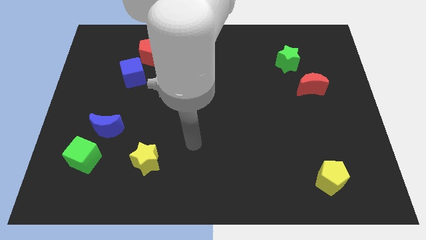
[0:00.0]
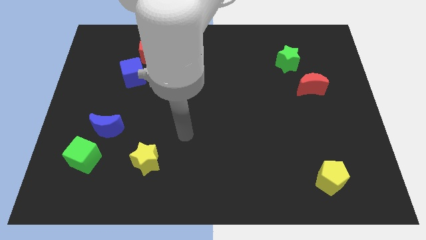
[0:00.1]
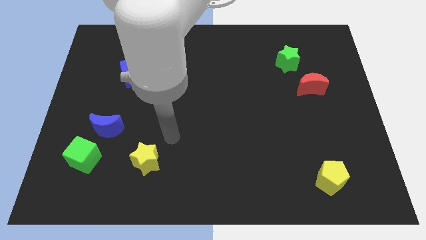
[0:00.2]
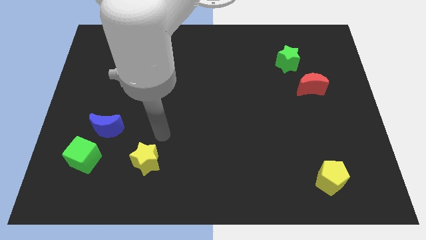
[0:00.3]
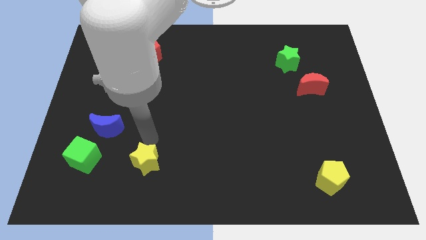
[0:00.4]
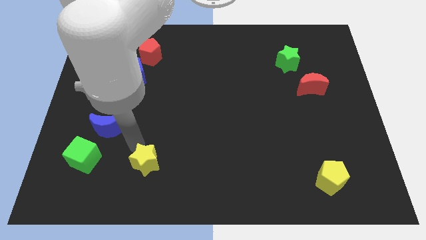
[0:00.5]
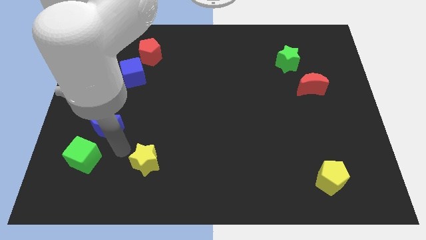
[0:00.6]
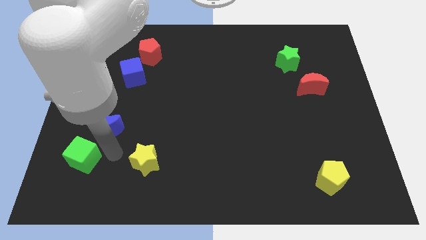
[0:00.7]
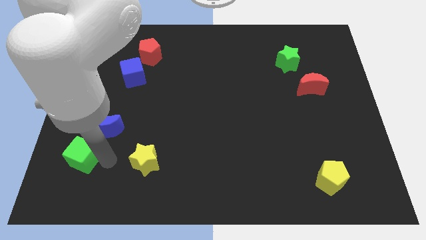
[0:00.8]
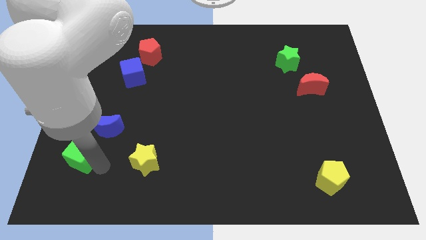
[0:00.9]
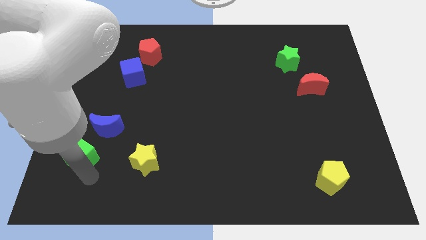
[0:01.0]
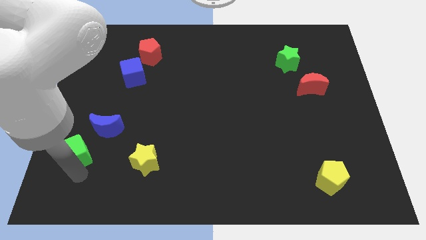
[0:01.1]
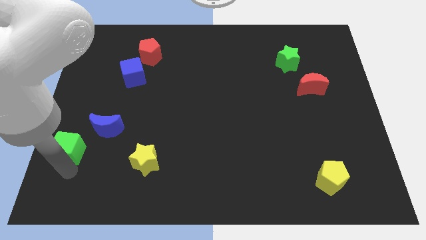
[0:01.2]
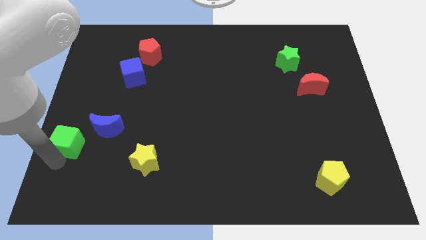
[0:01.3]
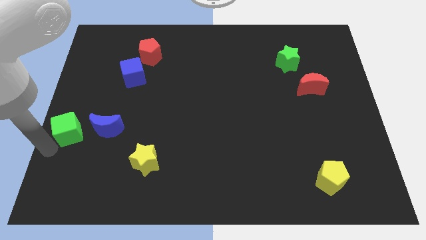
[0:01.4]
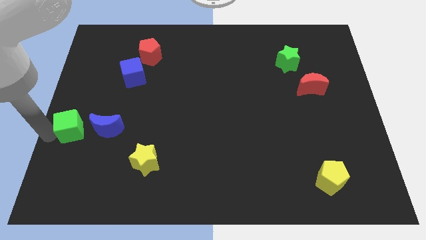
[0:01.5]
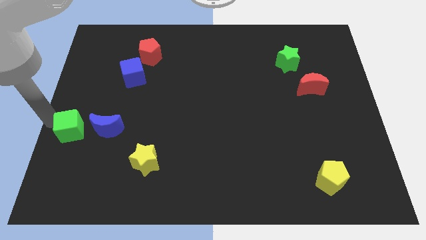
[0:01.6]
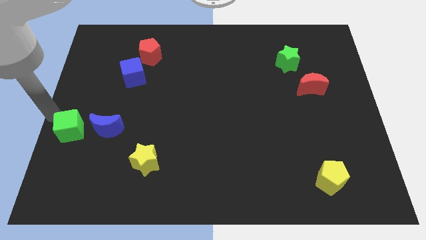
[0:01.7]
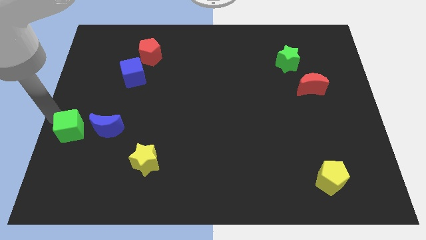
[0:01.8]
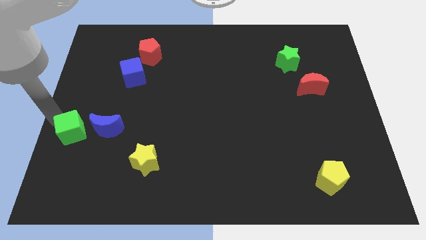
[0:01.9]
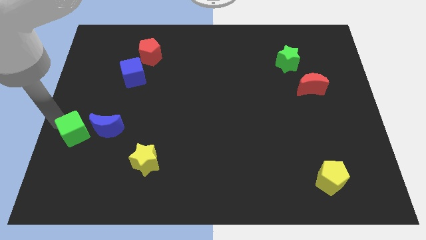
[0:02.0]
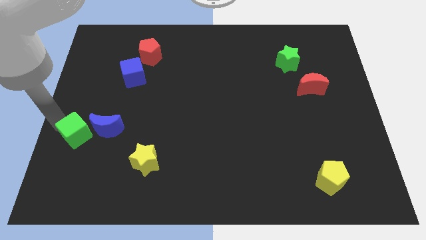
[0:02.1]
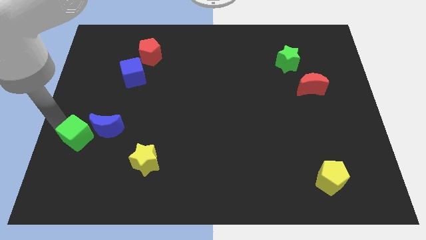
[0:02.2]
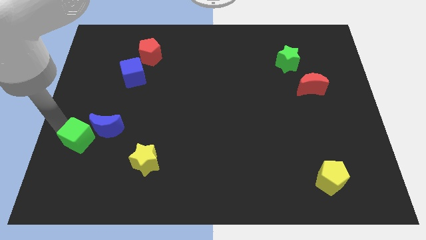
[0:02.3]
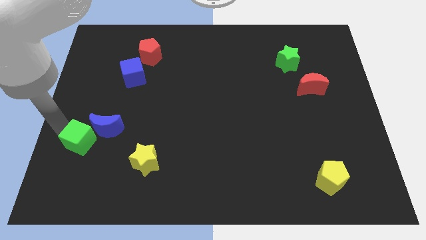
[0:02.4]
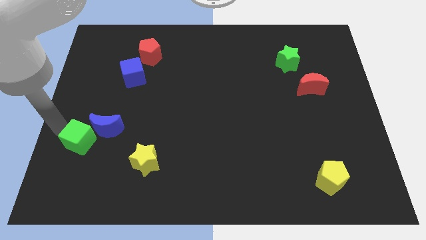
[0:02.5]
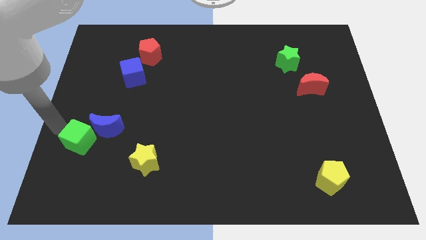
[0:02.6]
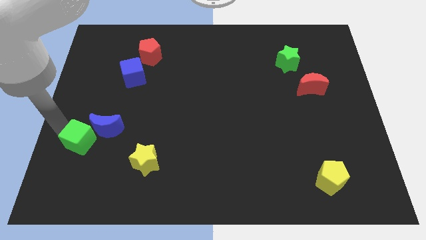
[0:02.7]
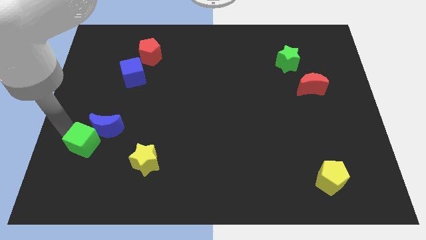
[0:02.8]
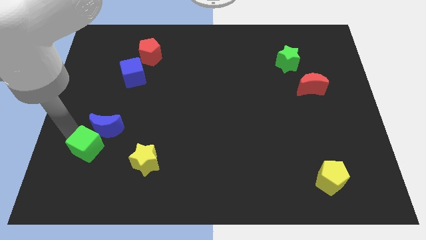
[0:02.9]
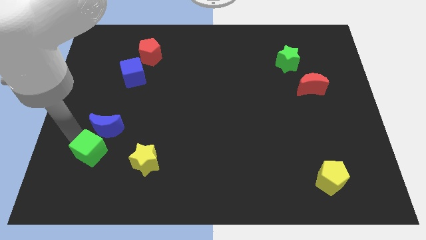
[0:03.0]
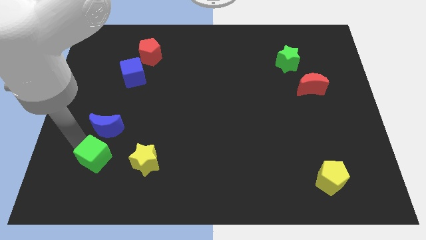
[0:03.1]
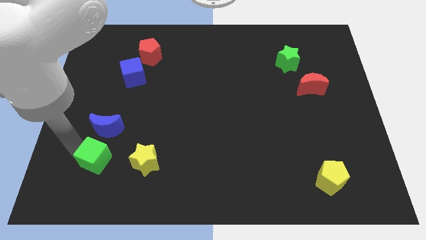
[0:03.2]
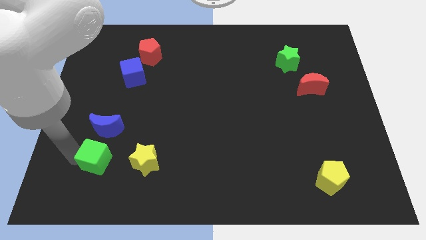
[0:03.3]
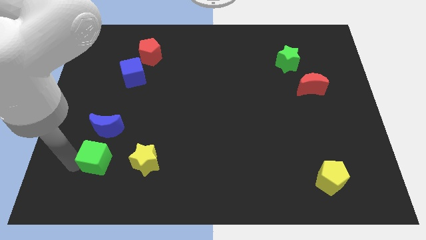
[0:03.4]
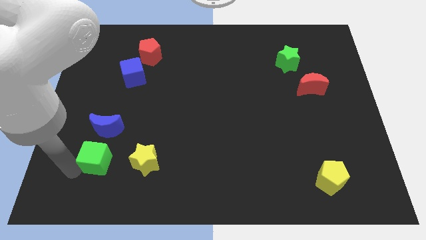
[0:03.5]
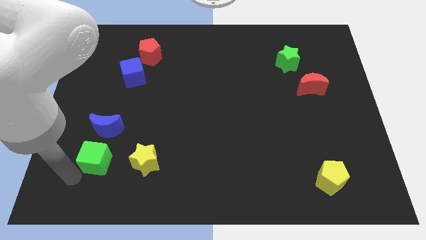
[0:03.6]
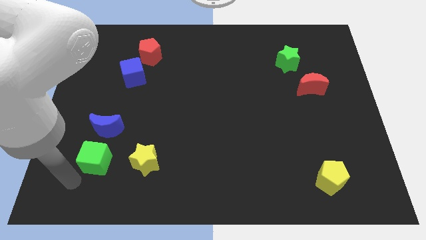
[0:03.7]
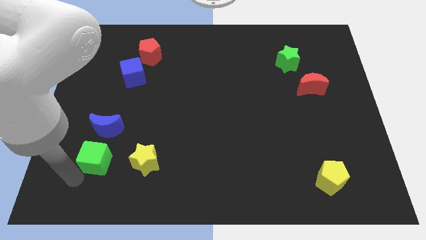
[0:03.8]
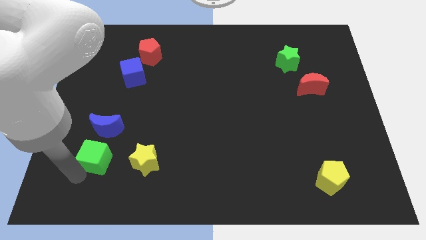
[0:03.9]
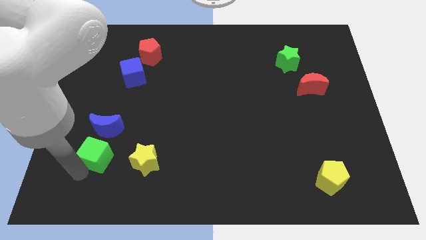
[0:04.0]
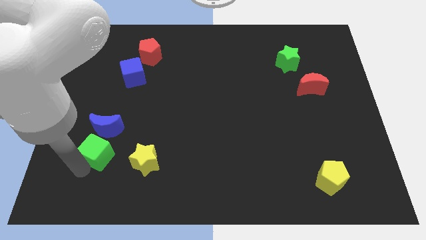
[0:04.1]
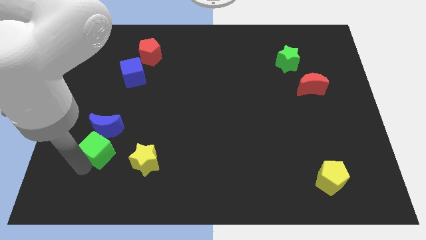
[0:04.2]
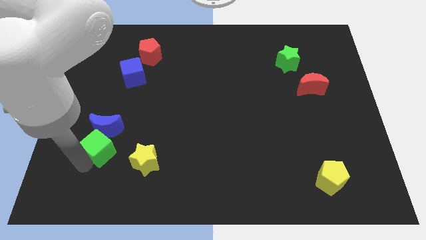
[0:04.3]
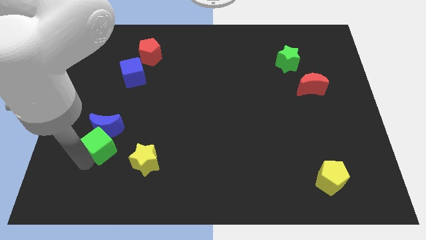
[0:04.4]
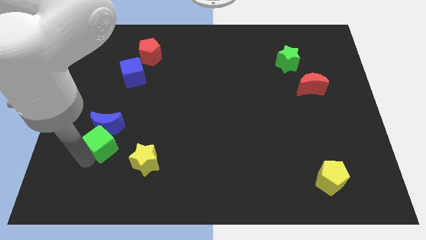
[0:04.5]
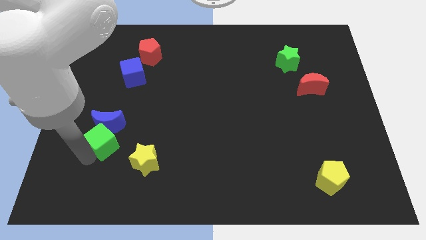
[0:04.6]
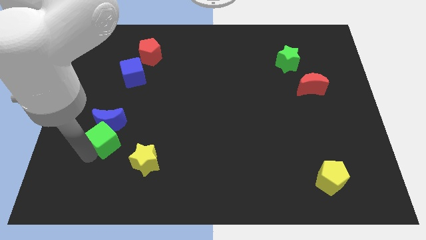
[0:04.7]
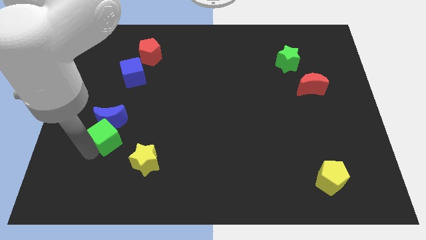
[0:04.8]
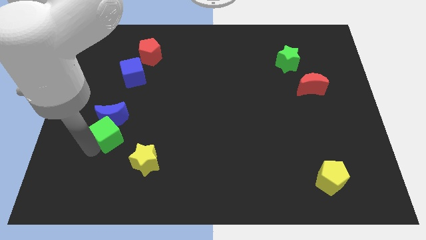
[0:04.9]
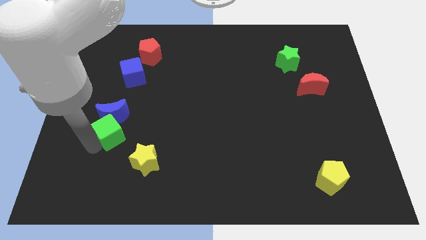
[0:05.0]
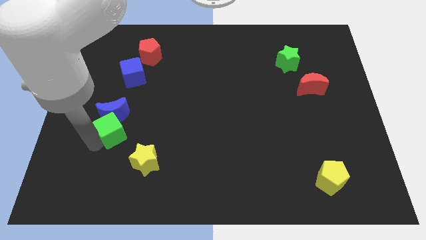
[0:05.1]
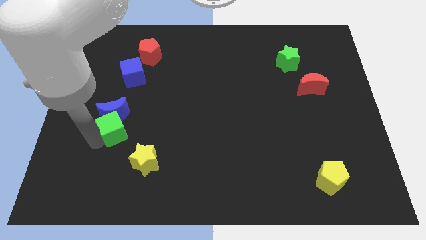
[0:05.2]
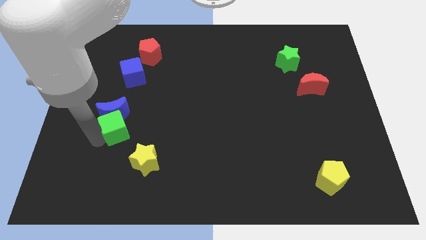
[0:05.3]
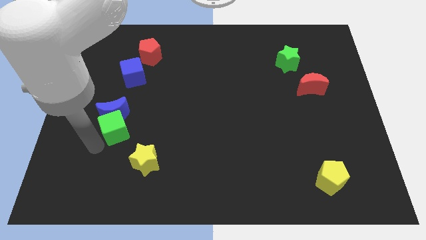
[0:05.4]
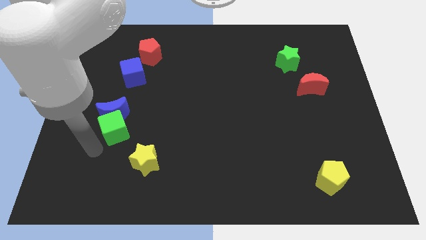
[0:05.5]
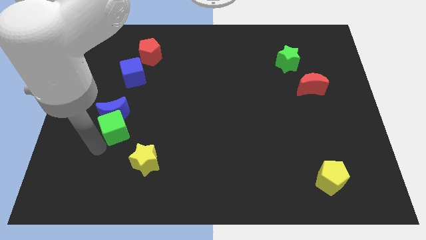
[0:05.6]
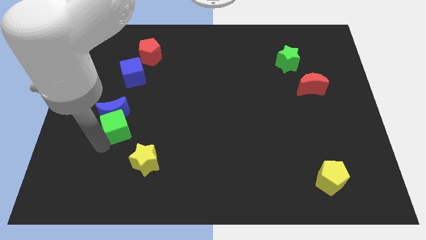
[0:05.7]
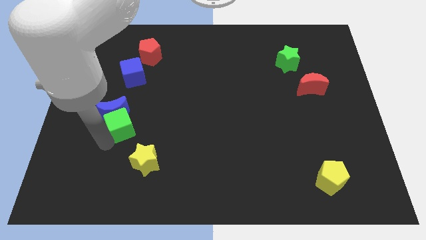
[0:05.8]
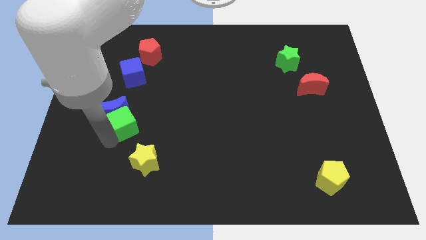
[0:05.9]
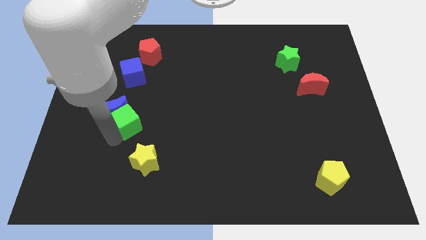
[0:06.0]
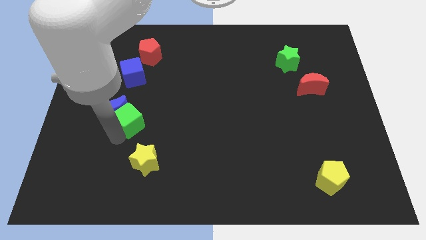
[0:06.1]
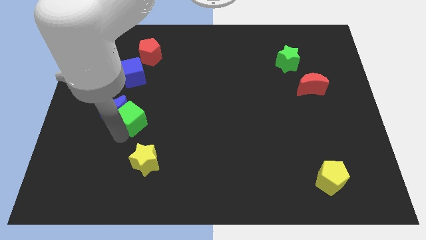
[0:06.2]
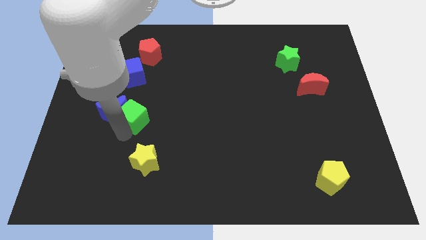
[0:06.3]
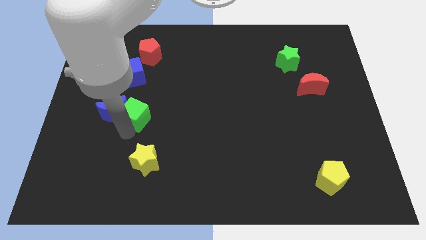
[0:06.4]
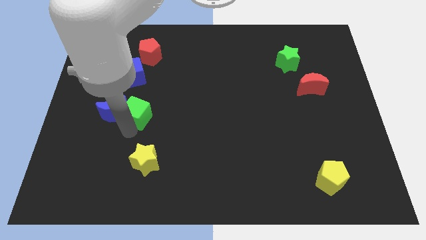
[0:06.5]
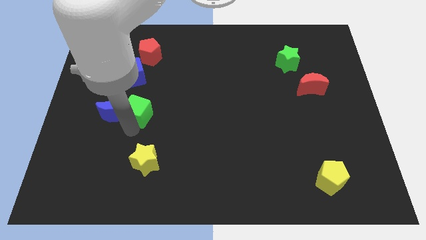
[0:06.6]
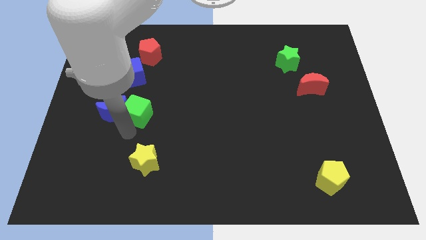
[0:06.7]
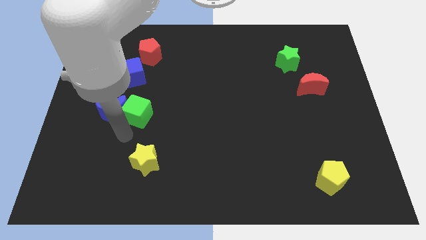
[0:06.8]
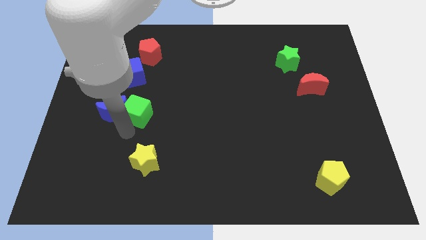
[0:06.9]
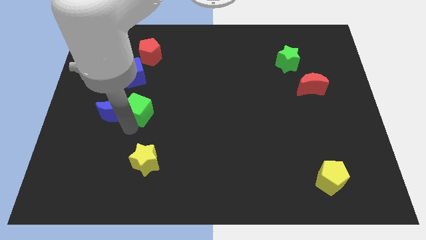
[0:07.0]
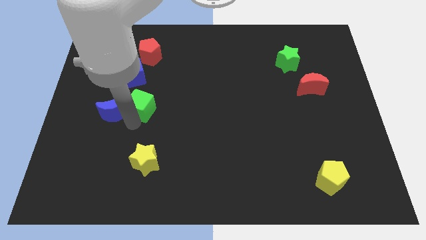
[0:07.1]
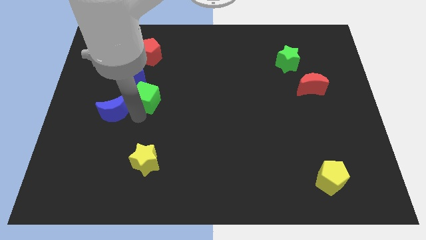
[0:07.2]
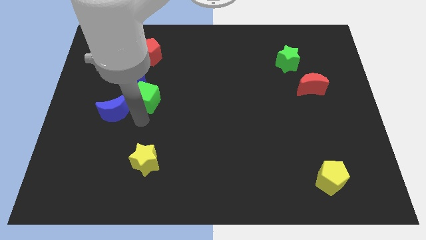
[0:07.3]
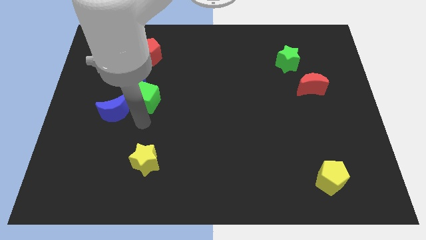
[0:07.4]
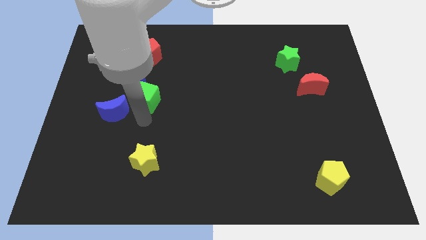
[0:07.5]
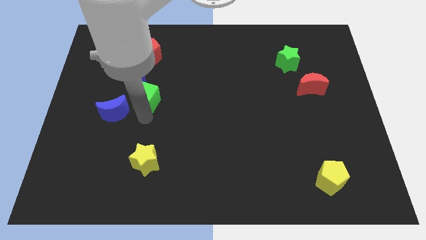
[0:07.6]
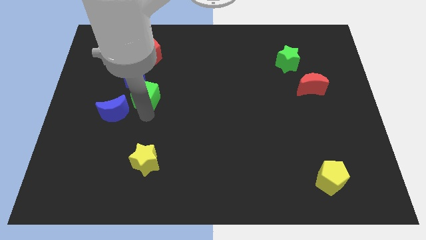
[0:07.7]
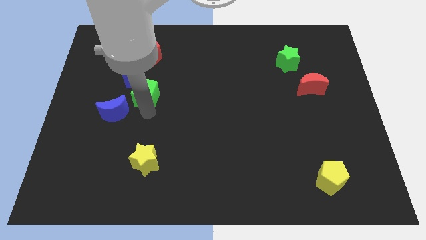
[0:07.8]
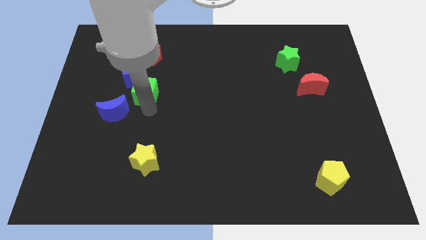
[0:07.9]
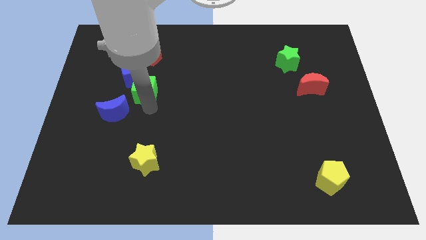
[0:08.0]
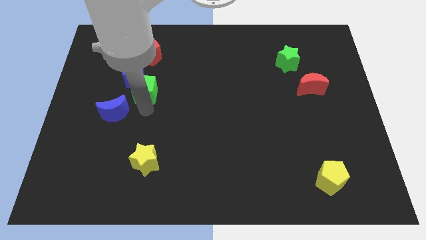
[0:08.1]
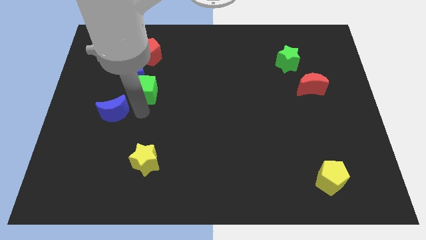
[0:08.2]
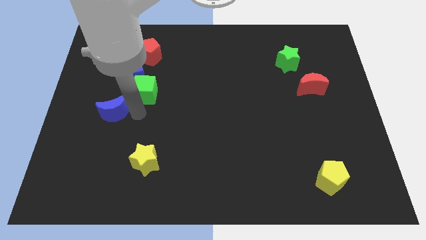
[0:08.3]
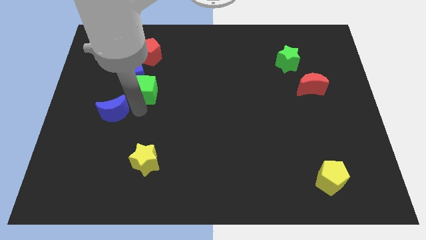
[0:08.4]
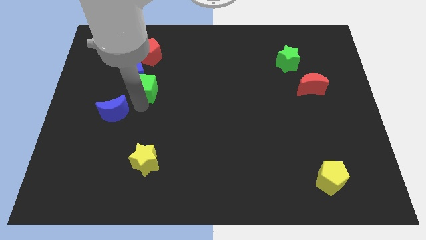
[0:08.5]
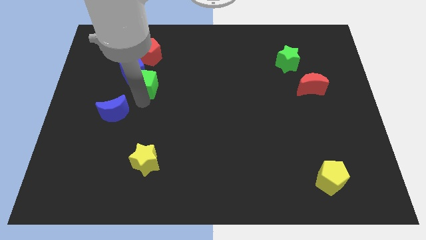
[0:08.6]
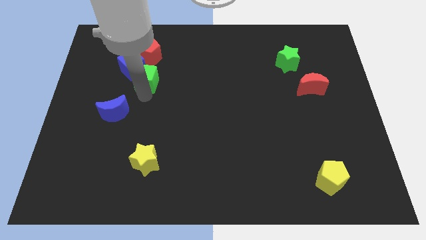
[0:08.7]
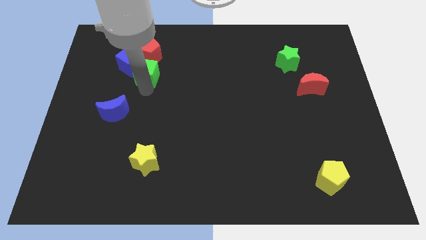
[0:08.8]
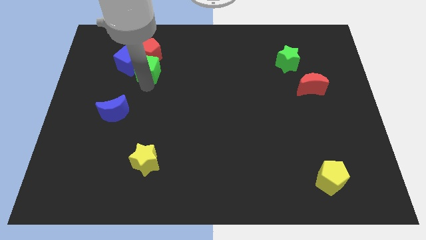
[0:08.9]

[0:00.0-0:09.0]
put the green cube next to the red pentagon
